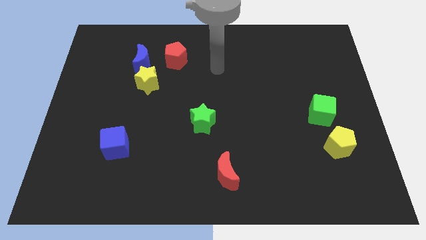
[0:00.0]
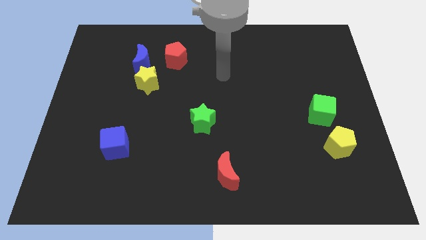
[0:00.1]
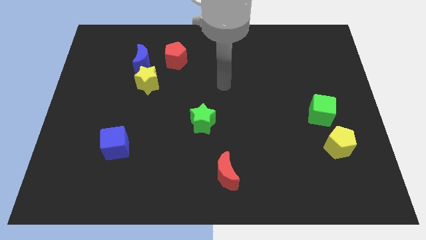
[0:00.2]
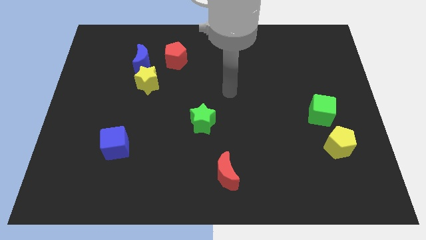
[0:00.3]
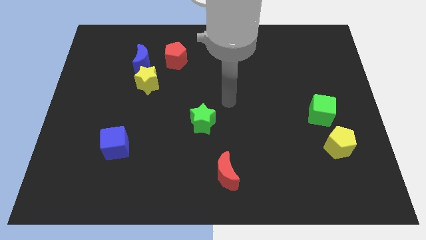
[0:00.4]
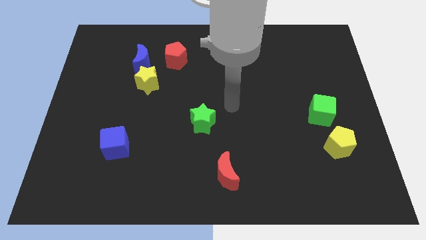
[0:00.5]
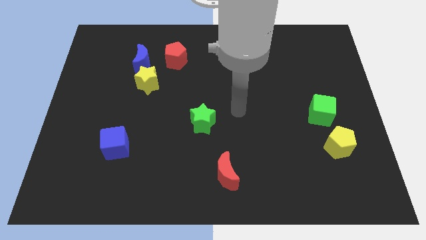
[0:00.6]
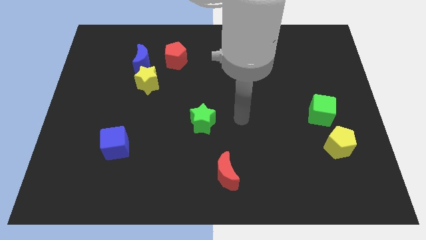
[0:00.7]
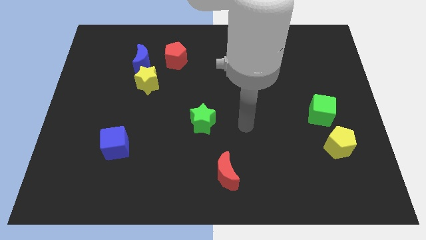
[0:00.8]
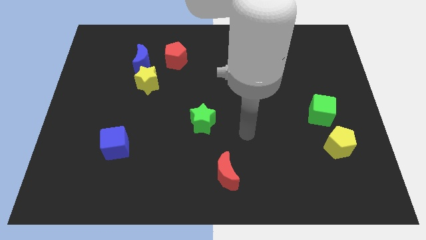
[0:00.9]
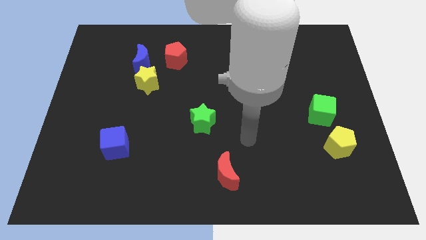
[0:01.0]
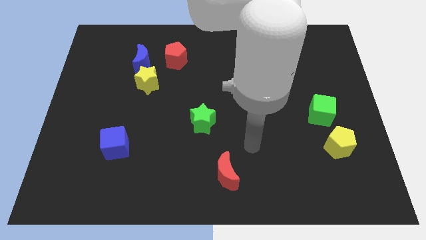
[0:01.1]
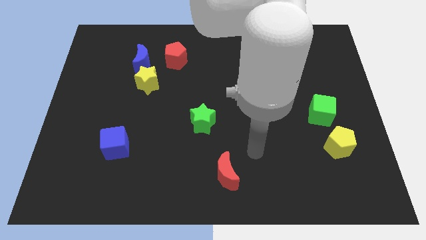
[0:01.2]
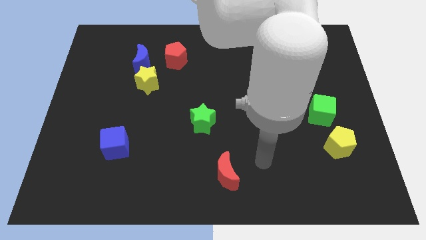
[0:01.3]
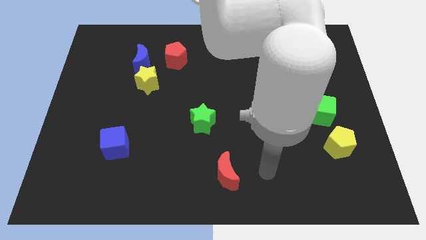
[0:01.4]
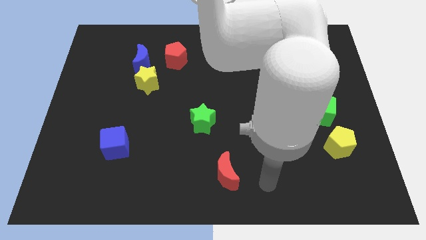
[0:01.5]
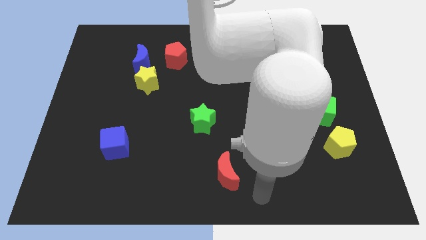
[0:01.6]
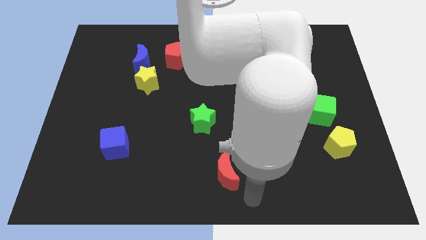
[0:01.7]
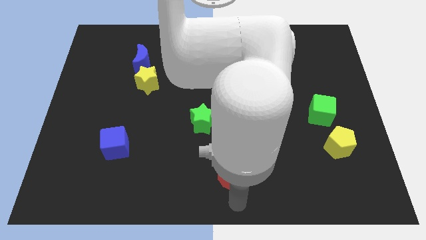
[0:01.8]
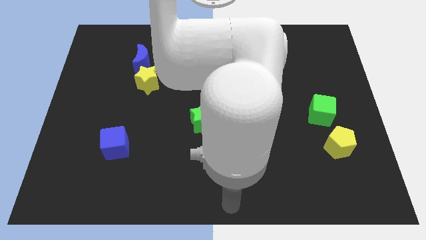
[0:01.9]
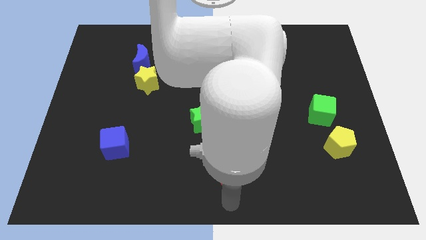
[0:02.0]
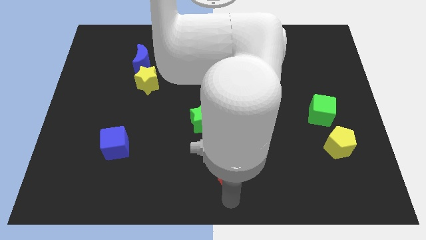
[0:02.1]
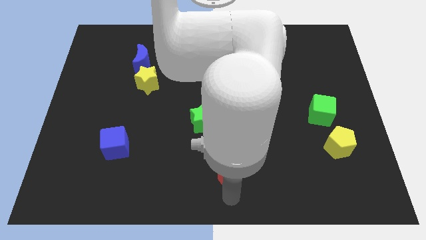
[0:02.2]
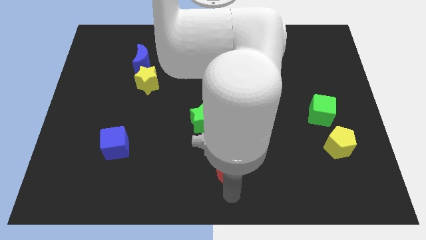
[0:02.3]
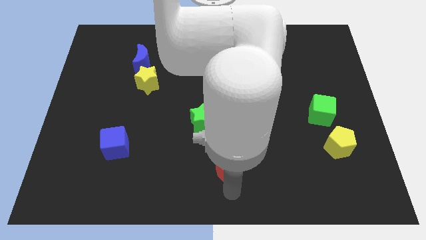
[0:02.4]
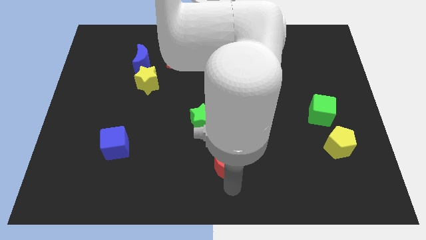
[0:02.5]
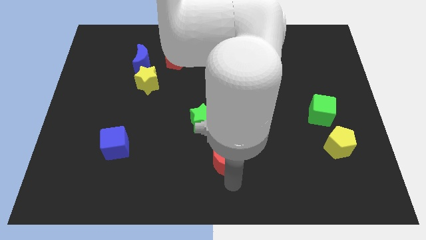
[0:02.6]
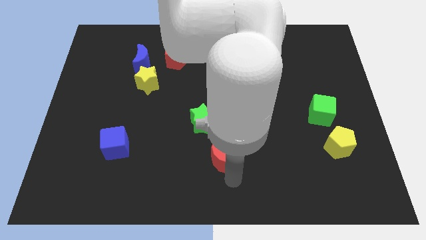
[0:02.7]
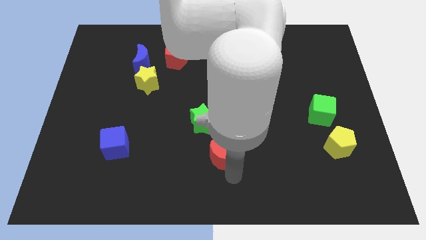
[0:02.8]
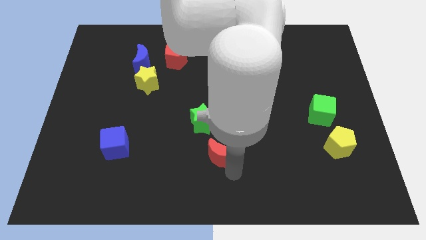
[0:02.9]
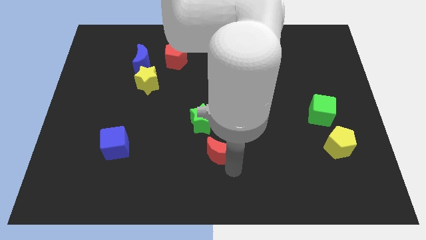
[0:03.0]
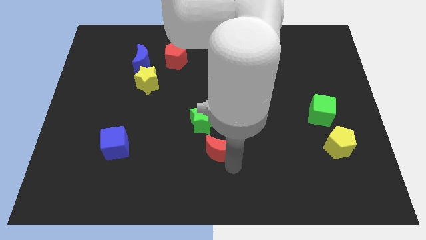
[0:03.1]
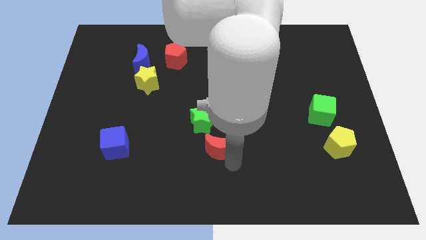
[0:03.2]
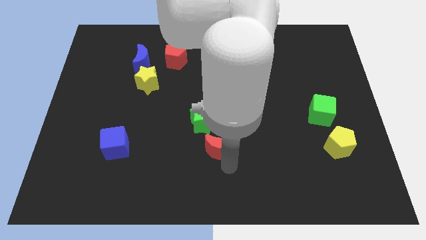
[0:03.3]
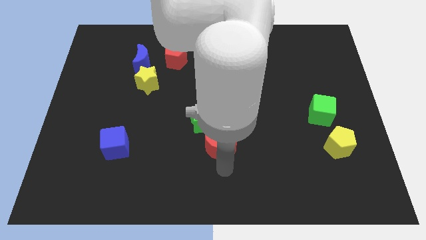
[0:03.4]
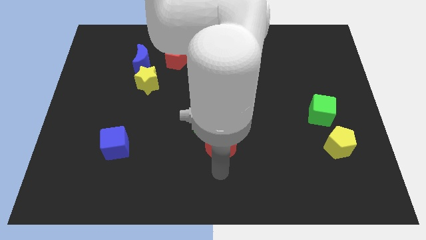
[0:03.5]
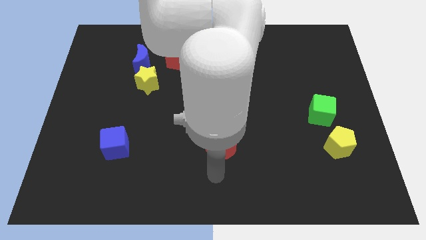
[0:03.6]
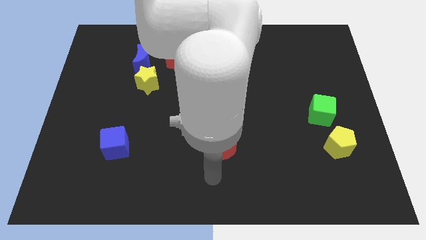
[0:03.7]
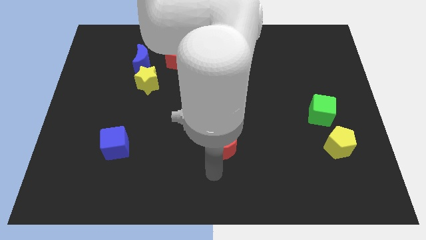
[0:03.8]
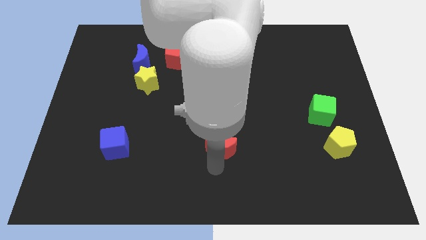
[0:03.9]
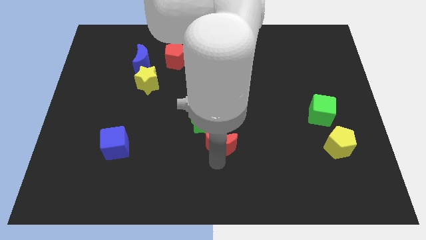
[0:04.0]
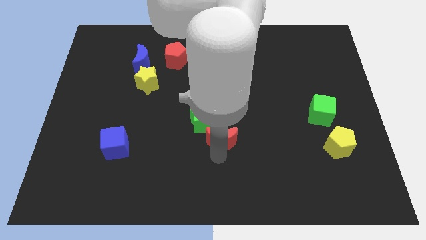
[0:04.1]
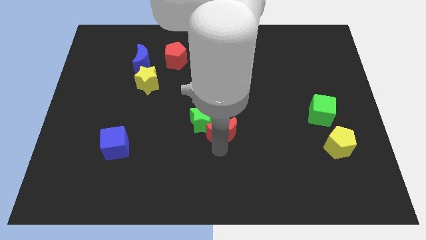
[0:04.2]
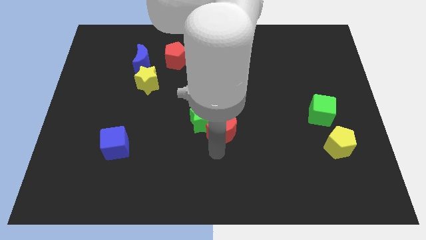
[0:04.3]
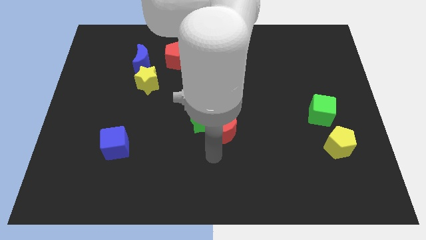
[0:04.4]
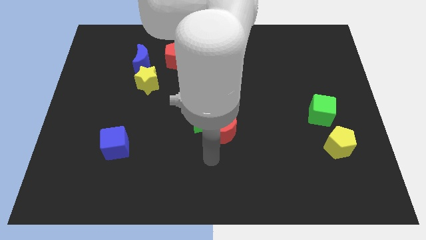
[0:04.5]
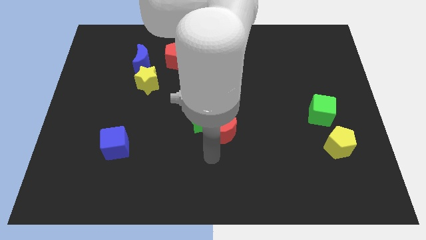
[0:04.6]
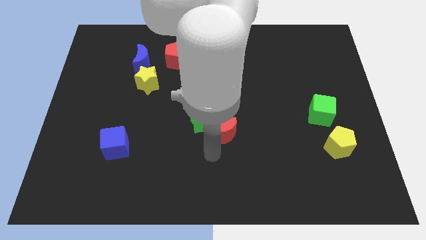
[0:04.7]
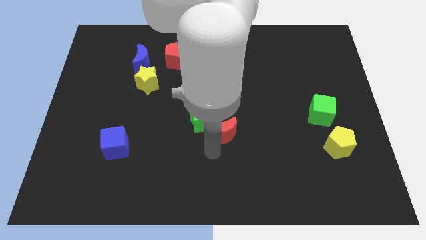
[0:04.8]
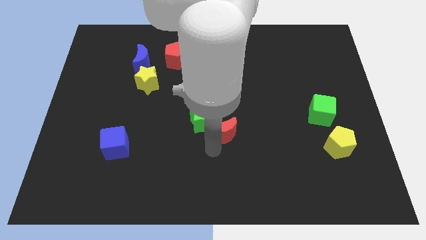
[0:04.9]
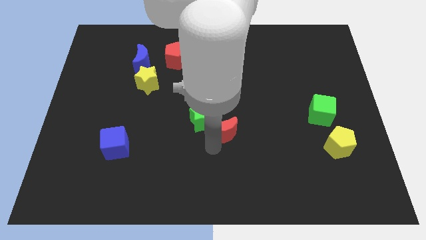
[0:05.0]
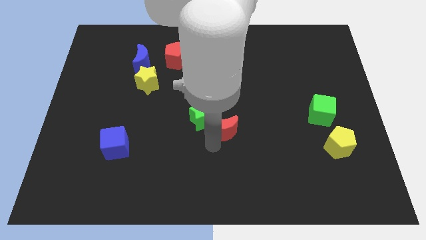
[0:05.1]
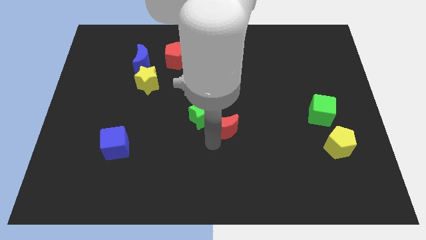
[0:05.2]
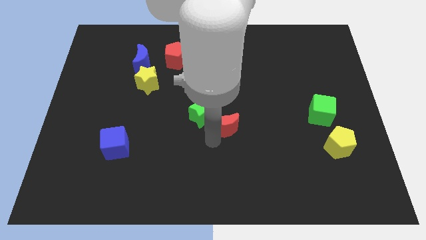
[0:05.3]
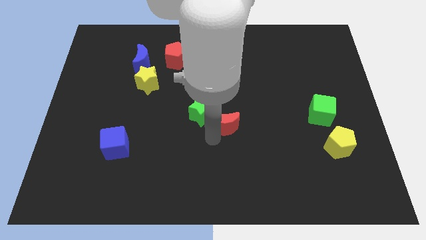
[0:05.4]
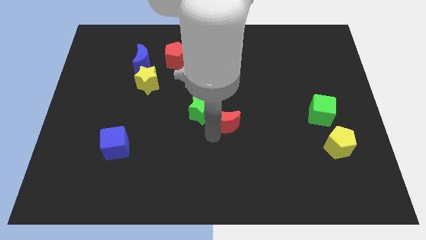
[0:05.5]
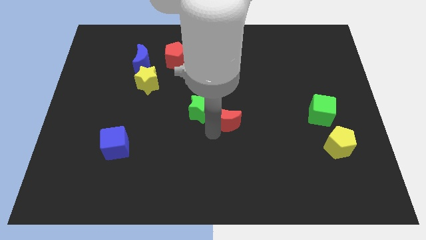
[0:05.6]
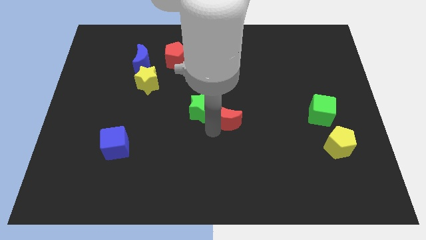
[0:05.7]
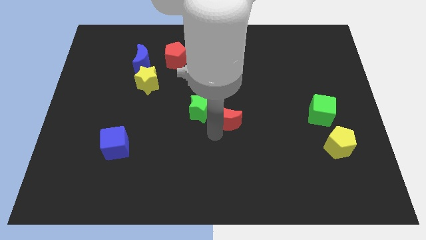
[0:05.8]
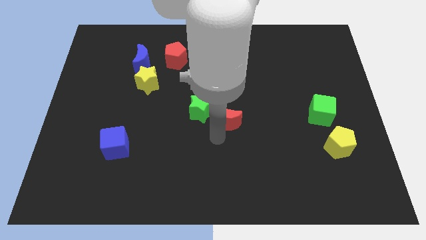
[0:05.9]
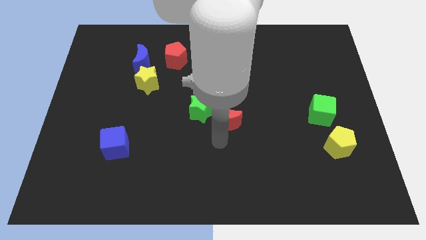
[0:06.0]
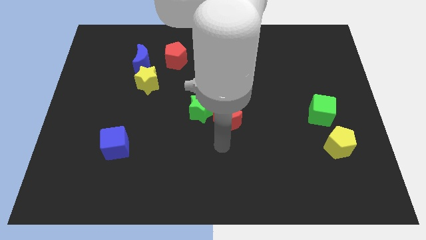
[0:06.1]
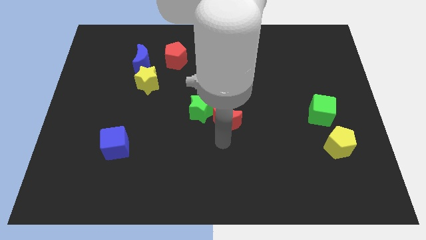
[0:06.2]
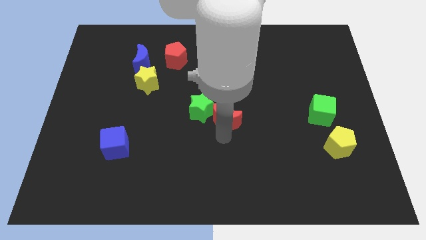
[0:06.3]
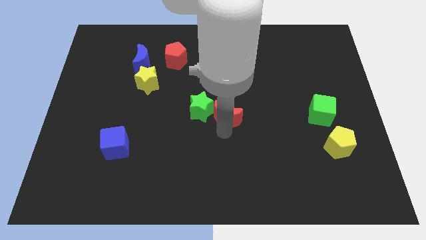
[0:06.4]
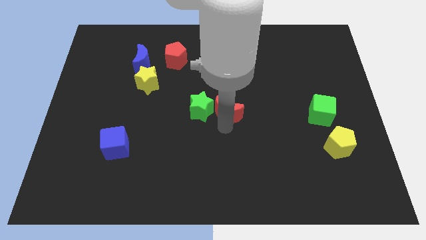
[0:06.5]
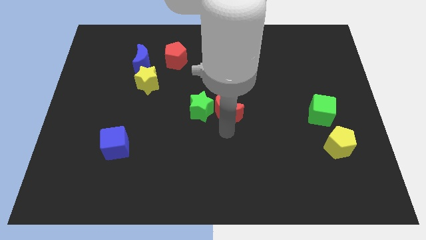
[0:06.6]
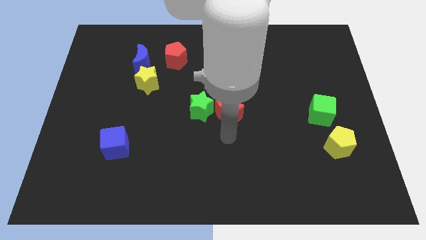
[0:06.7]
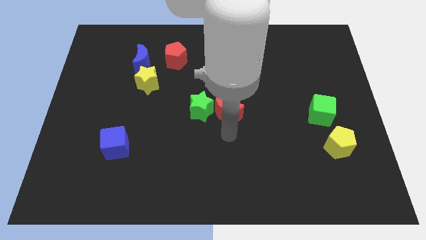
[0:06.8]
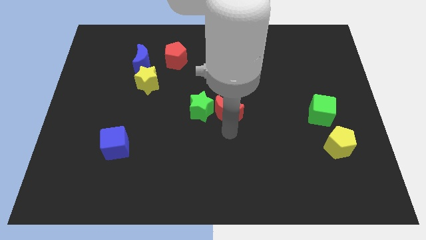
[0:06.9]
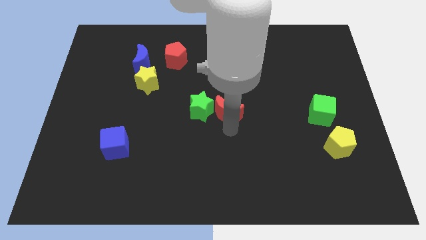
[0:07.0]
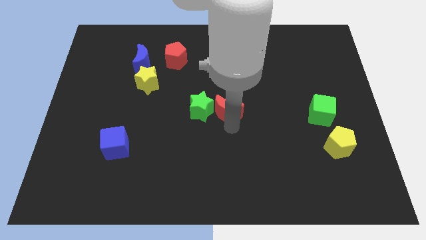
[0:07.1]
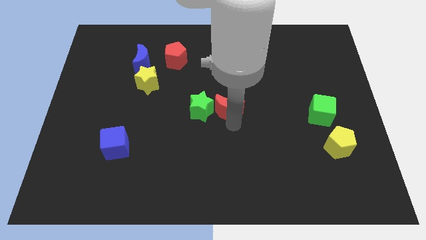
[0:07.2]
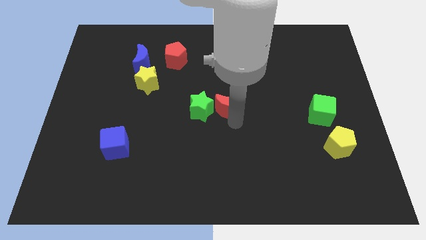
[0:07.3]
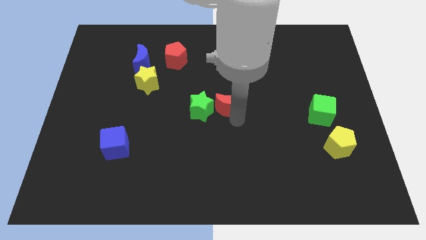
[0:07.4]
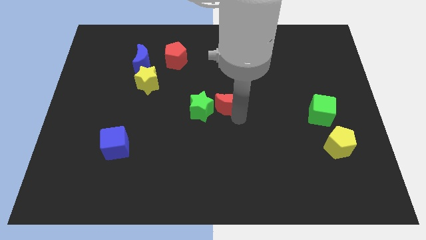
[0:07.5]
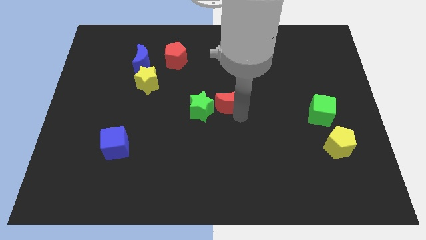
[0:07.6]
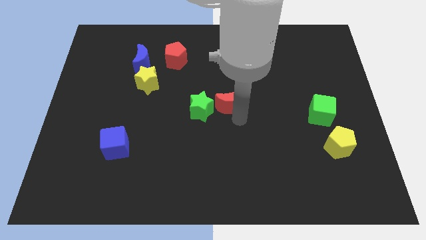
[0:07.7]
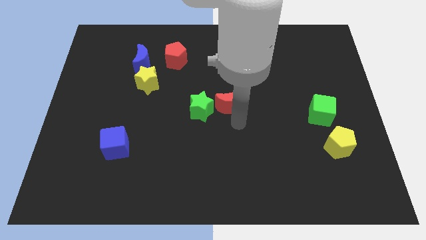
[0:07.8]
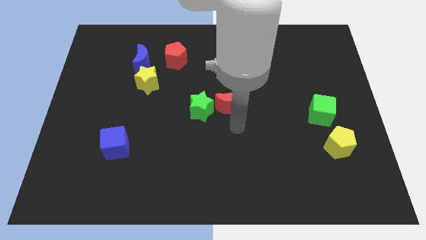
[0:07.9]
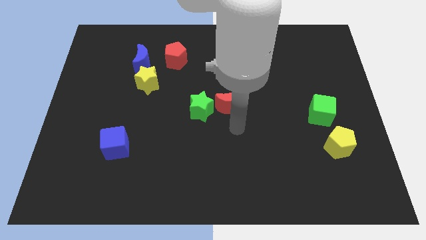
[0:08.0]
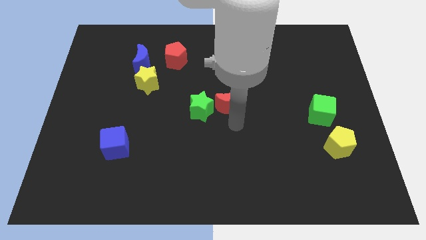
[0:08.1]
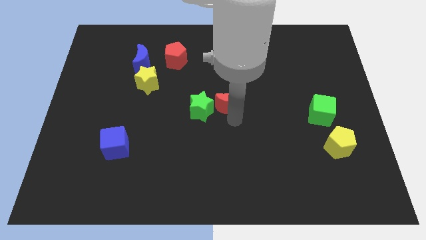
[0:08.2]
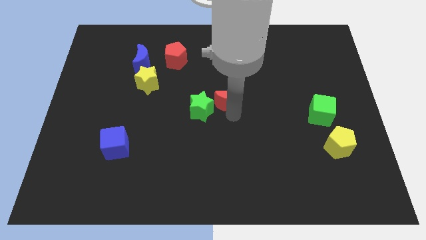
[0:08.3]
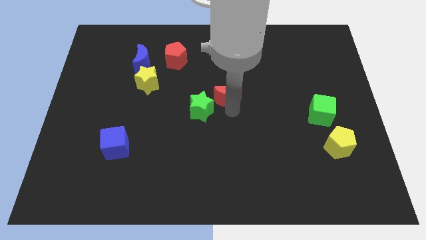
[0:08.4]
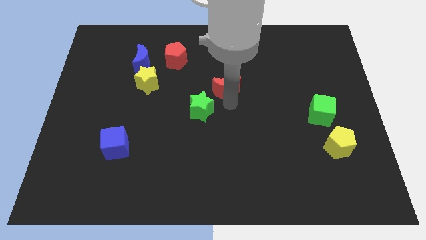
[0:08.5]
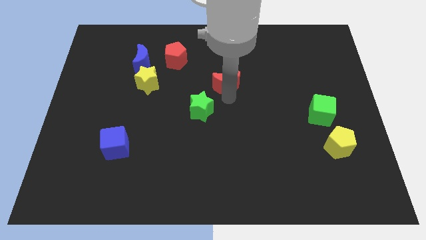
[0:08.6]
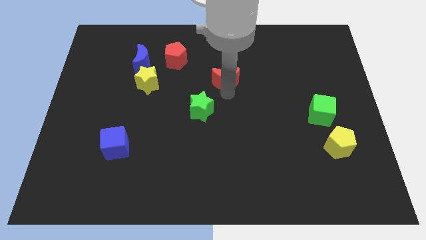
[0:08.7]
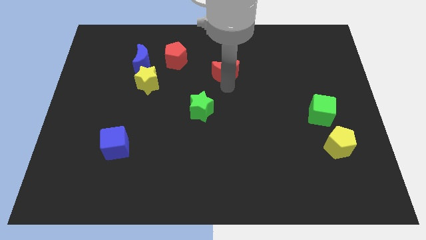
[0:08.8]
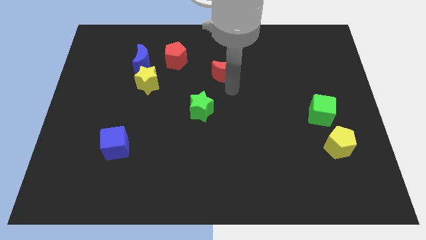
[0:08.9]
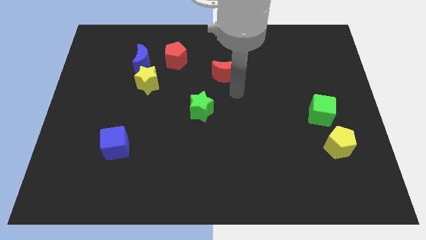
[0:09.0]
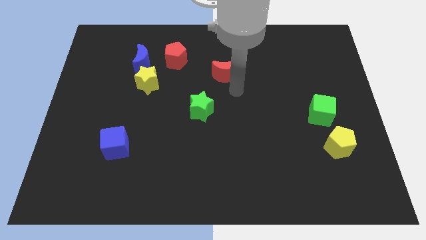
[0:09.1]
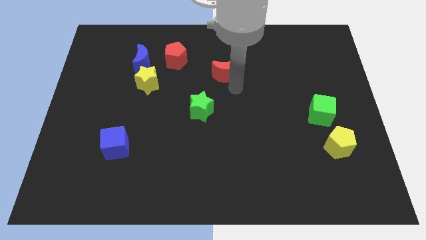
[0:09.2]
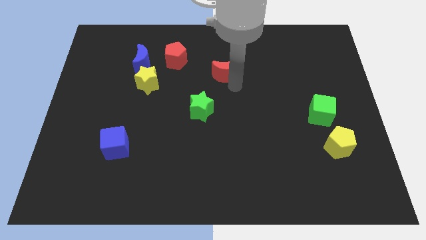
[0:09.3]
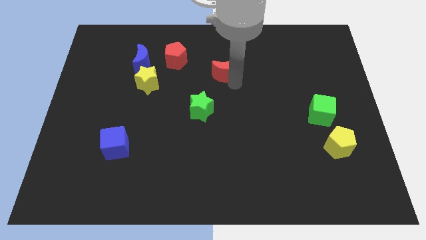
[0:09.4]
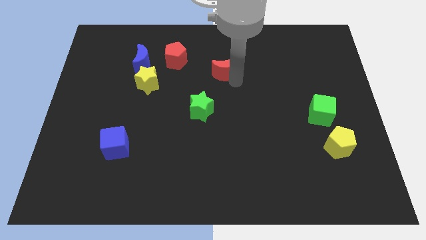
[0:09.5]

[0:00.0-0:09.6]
push the red moon just right of the red pentagon
